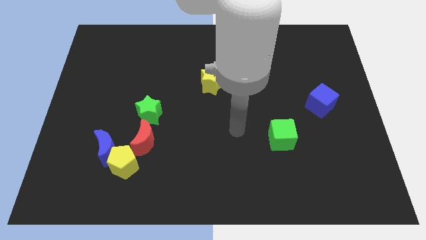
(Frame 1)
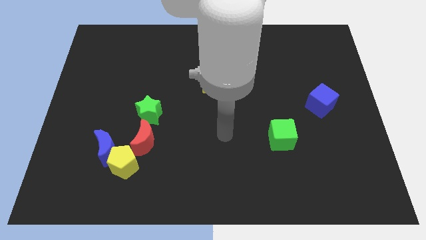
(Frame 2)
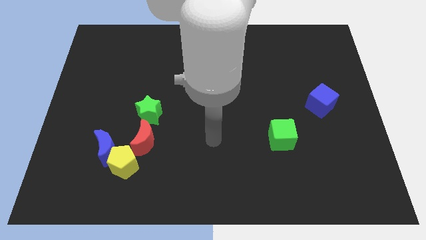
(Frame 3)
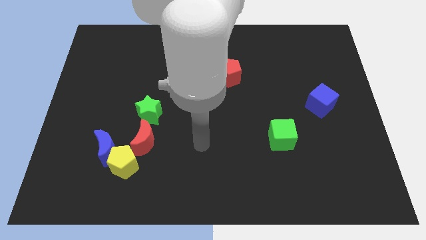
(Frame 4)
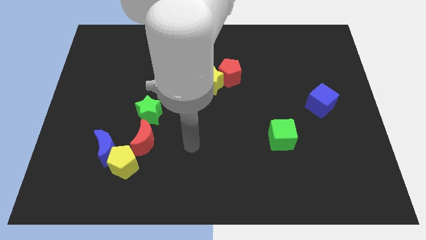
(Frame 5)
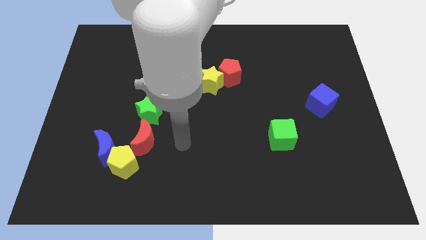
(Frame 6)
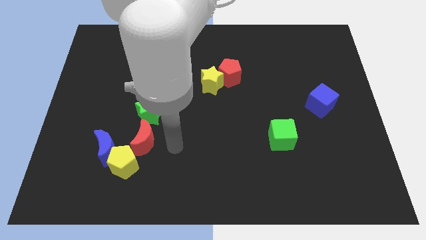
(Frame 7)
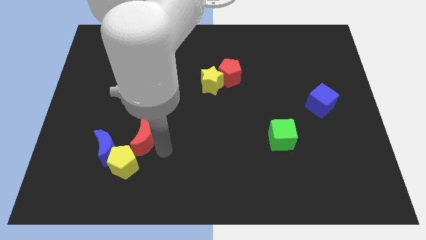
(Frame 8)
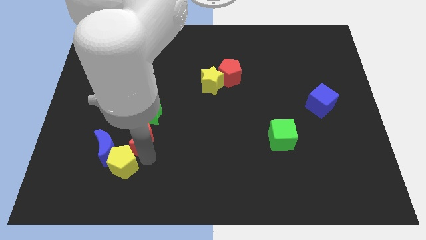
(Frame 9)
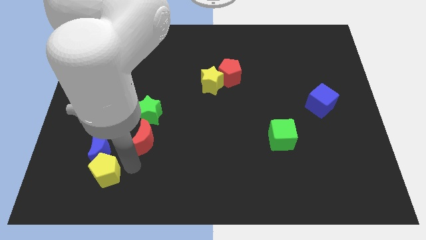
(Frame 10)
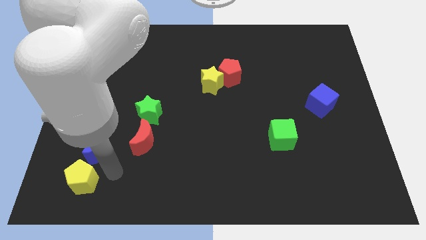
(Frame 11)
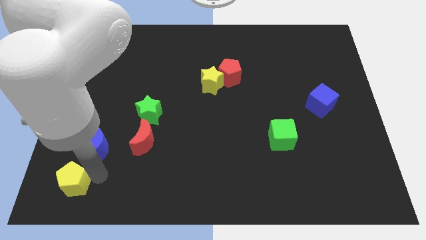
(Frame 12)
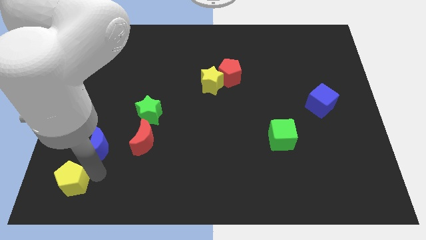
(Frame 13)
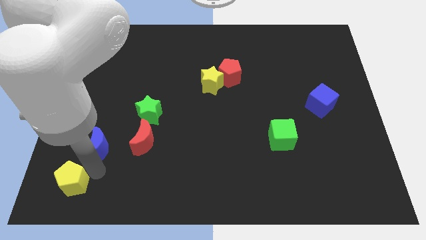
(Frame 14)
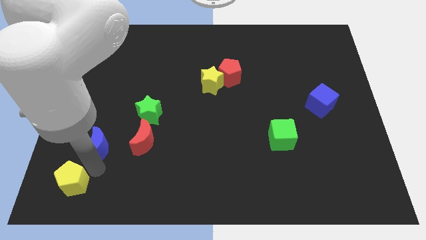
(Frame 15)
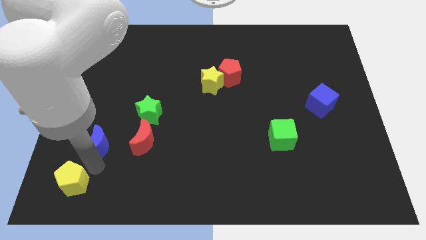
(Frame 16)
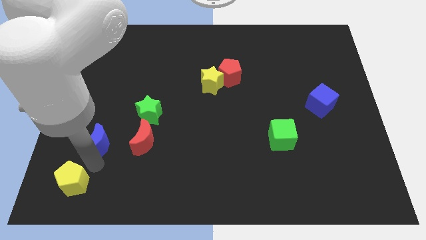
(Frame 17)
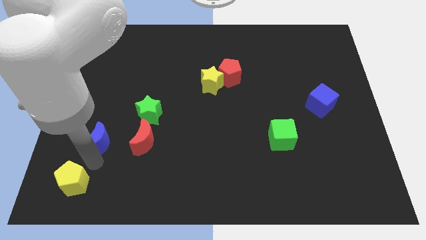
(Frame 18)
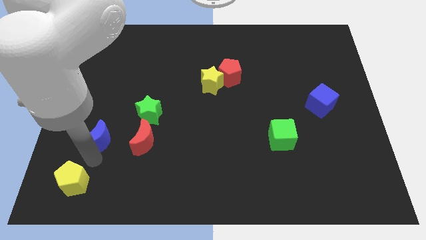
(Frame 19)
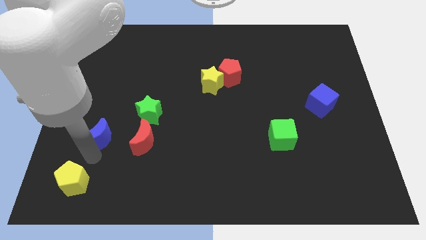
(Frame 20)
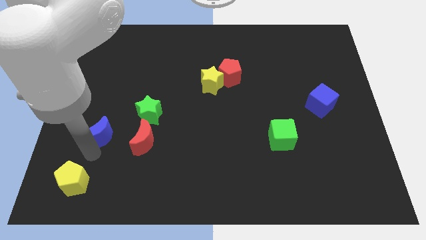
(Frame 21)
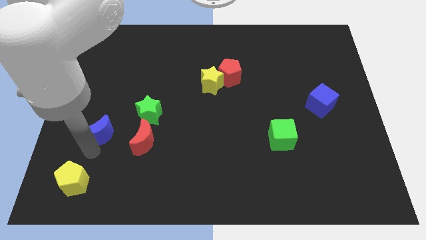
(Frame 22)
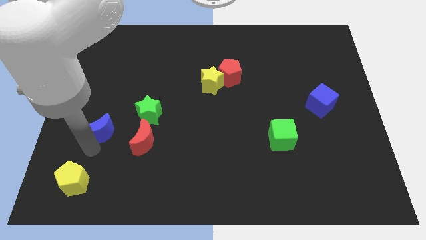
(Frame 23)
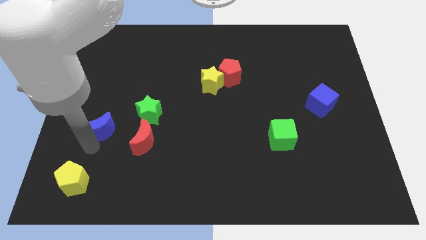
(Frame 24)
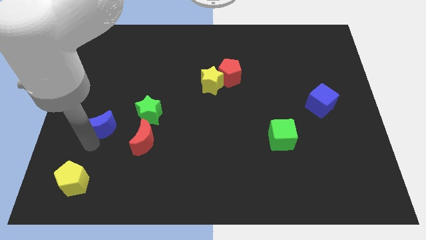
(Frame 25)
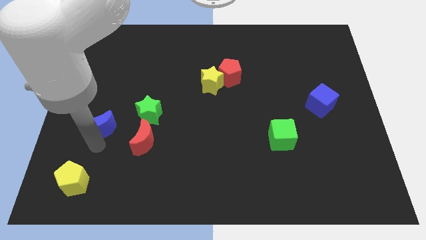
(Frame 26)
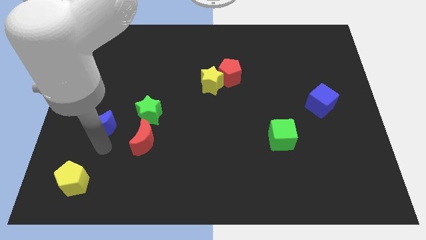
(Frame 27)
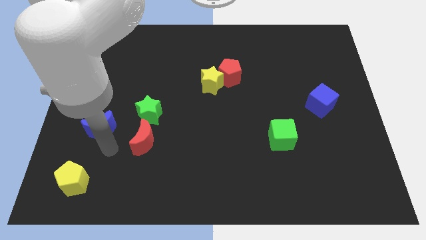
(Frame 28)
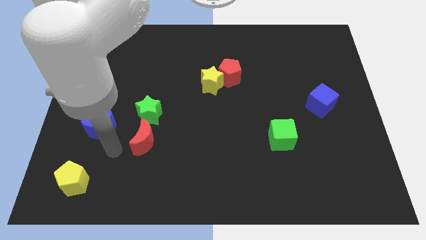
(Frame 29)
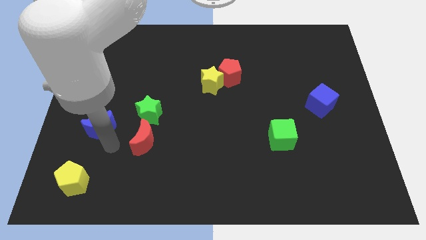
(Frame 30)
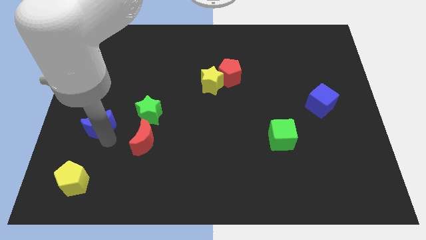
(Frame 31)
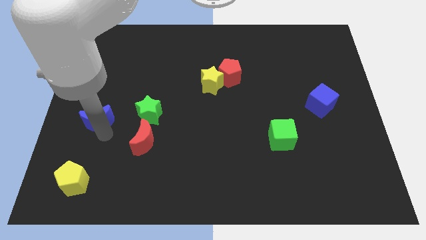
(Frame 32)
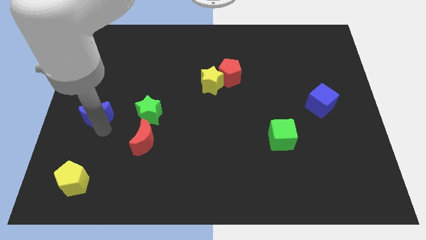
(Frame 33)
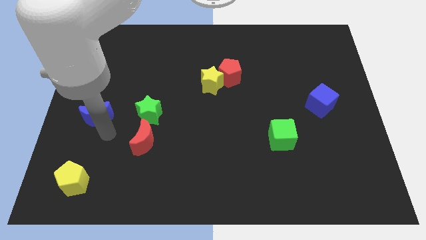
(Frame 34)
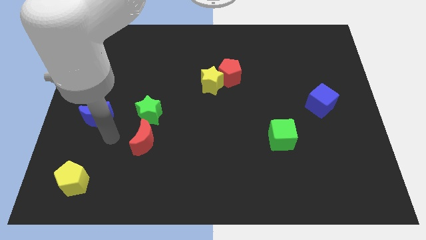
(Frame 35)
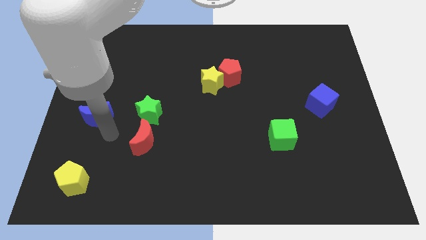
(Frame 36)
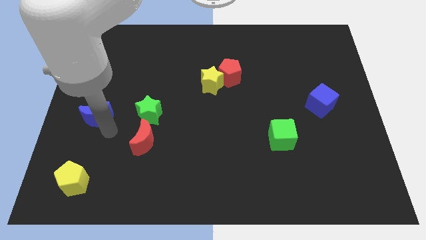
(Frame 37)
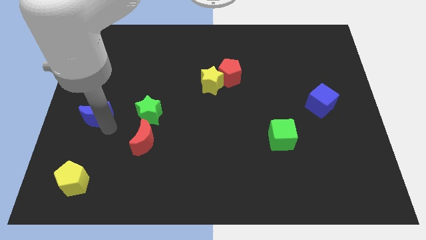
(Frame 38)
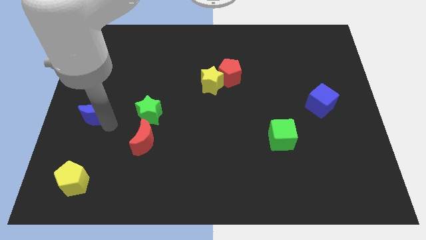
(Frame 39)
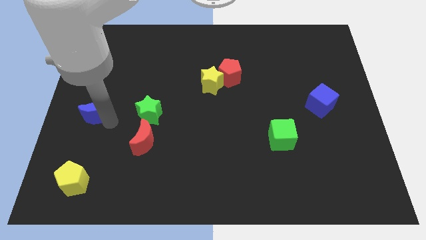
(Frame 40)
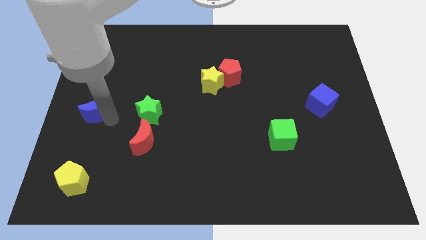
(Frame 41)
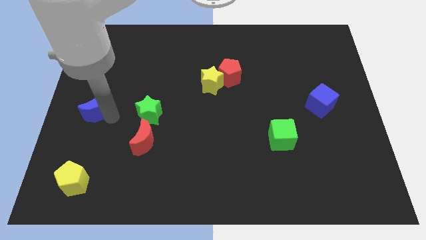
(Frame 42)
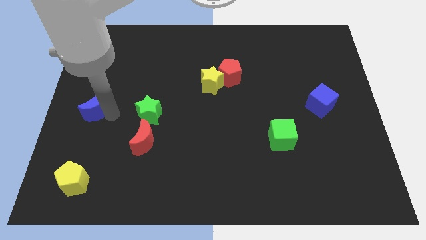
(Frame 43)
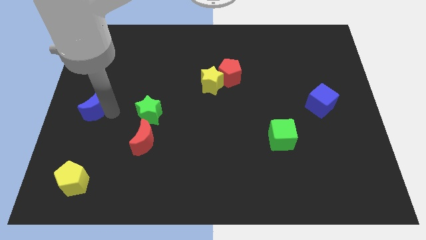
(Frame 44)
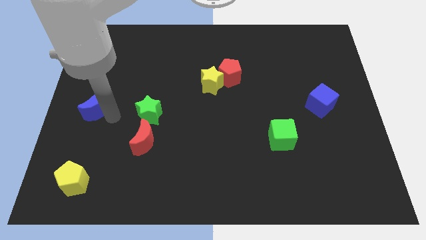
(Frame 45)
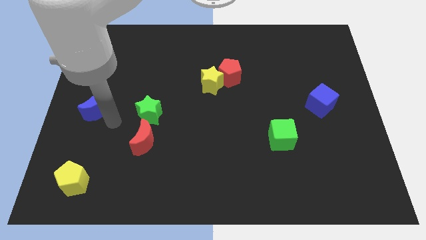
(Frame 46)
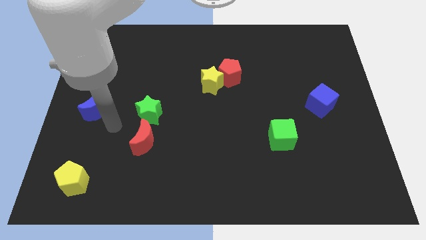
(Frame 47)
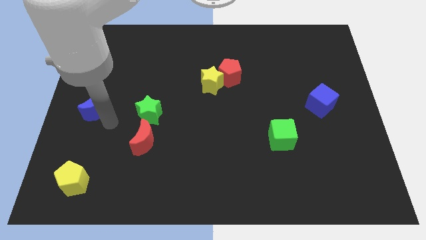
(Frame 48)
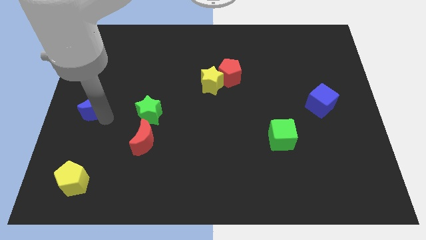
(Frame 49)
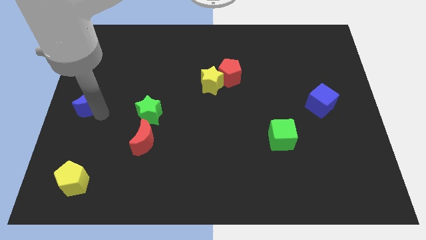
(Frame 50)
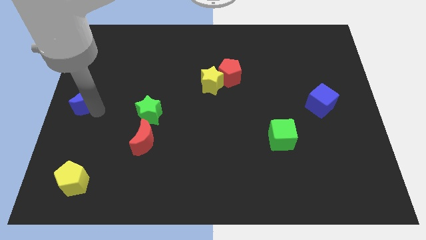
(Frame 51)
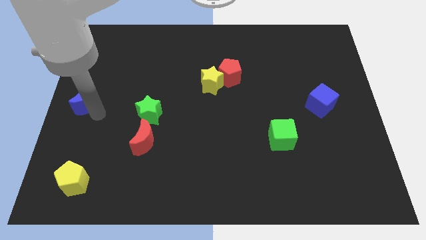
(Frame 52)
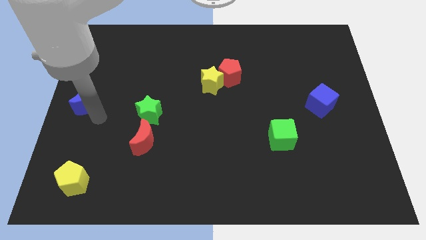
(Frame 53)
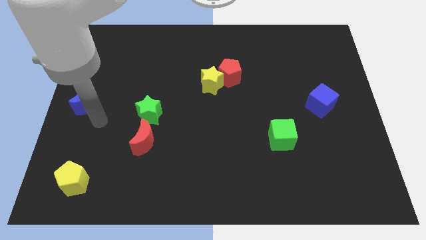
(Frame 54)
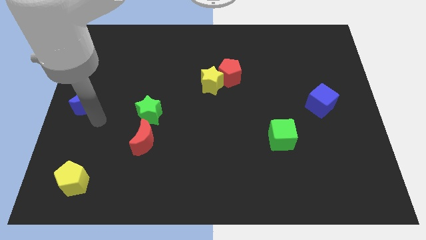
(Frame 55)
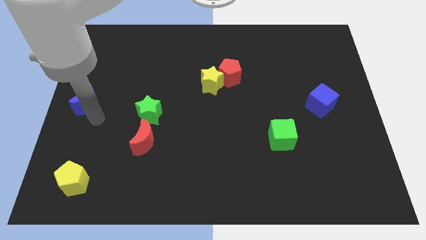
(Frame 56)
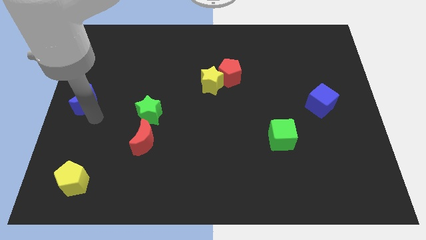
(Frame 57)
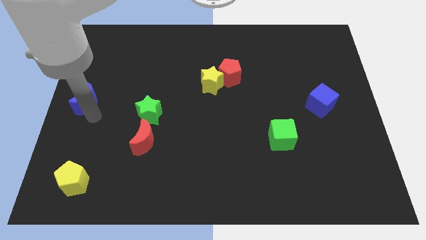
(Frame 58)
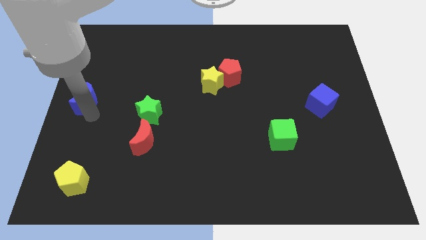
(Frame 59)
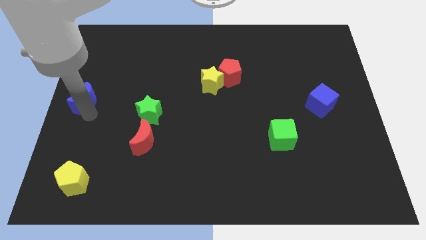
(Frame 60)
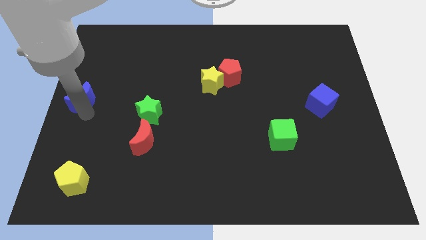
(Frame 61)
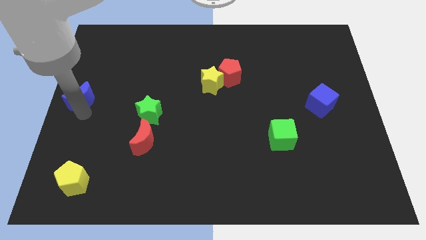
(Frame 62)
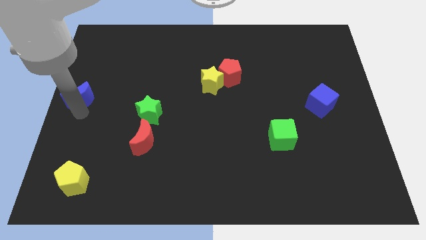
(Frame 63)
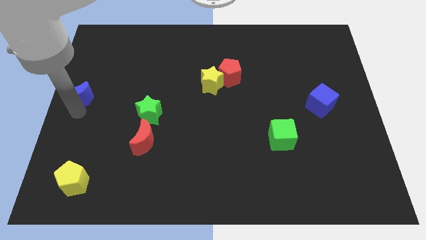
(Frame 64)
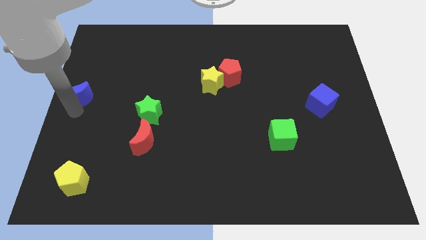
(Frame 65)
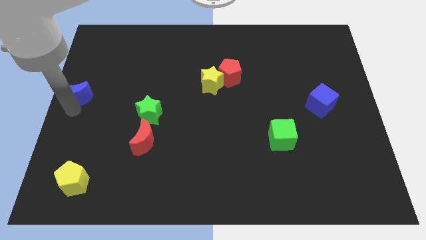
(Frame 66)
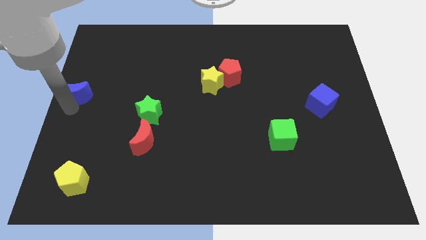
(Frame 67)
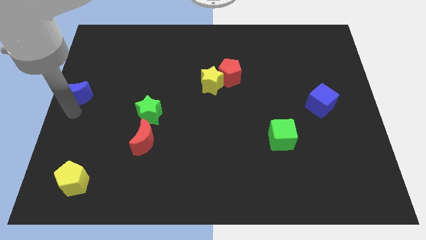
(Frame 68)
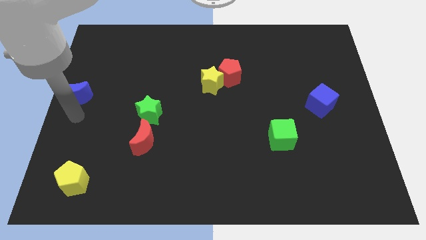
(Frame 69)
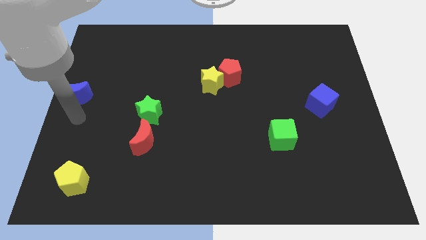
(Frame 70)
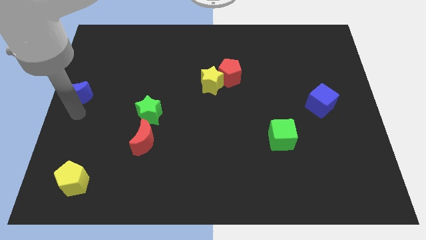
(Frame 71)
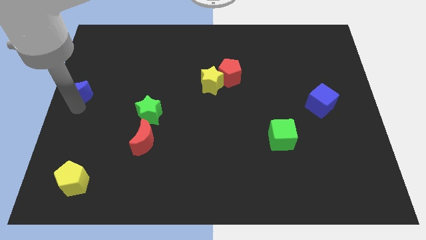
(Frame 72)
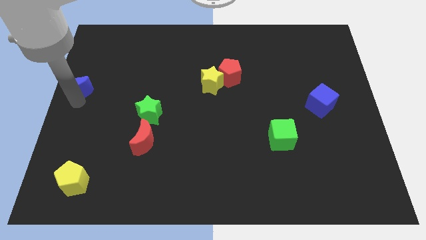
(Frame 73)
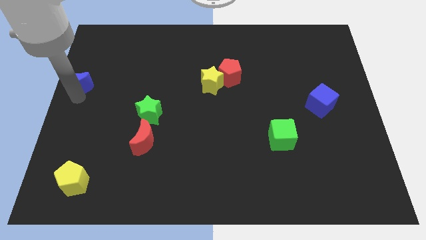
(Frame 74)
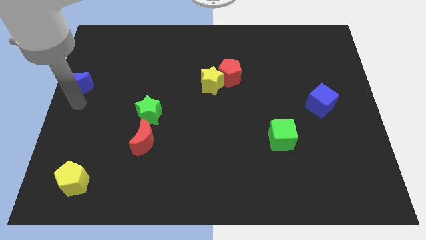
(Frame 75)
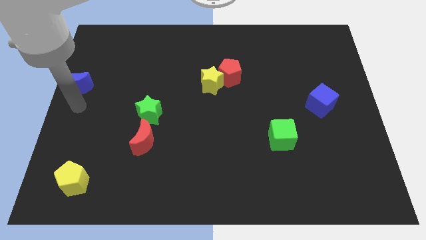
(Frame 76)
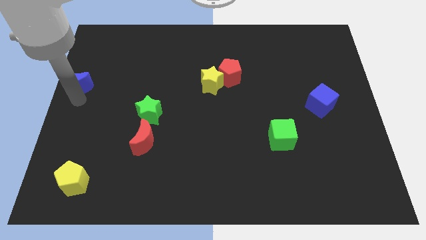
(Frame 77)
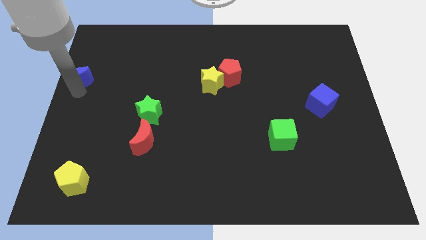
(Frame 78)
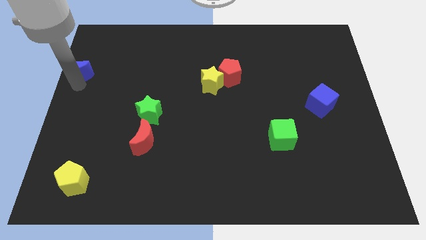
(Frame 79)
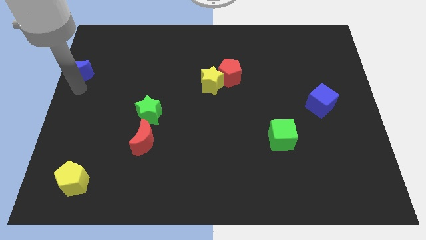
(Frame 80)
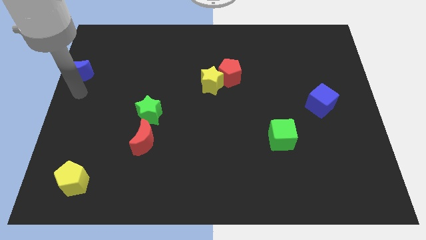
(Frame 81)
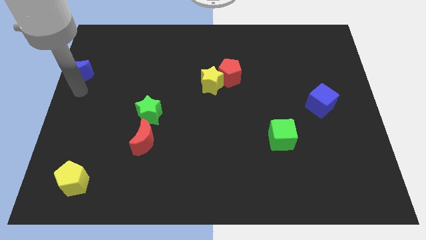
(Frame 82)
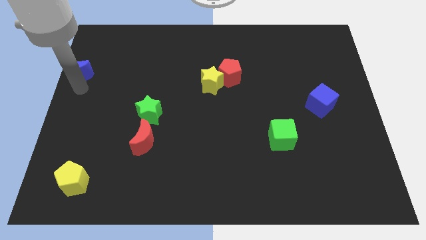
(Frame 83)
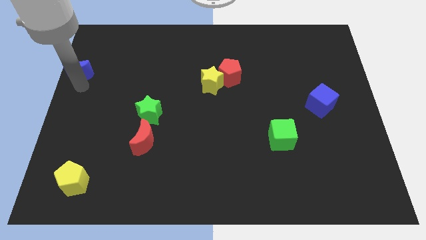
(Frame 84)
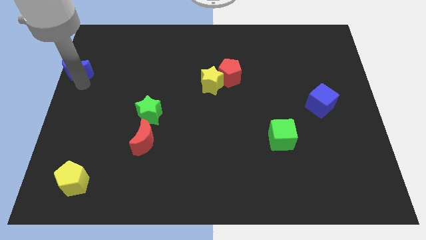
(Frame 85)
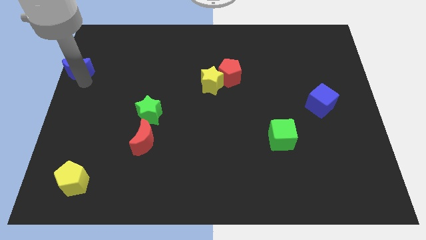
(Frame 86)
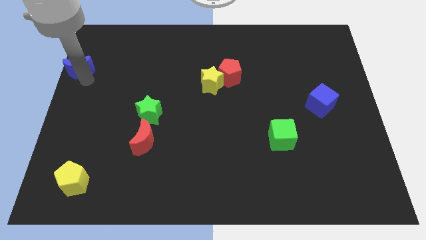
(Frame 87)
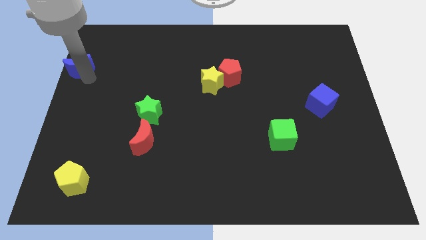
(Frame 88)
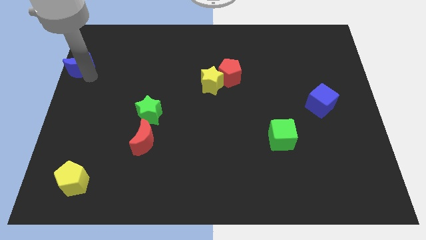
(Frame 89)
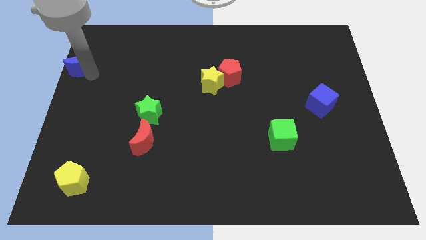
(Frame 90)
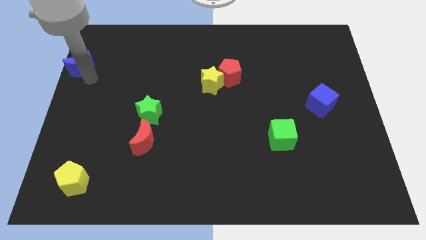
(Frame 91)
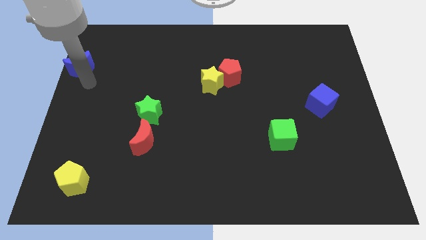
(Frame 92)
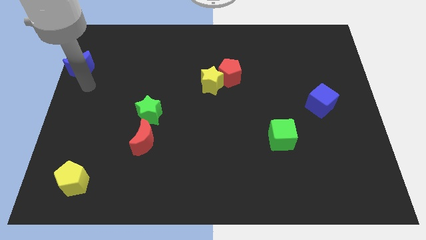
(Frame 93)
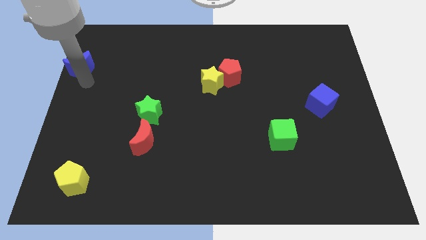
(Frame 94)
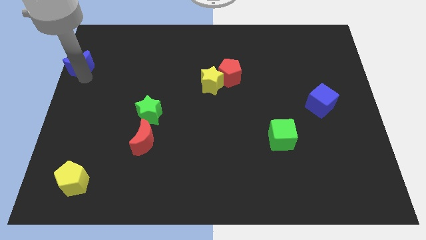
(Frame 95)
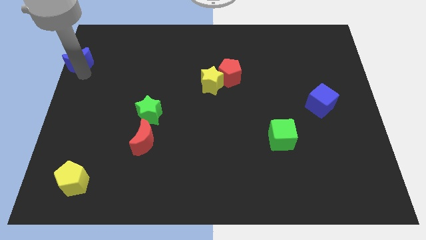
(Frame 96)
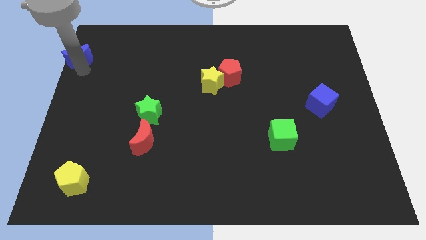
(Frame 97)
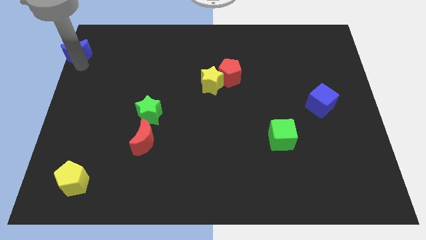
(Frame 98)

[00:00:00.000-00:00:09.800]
push the blue moon to the upper left corner
